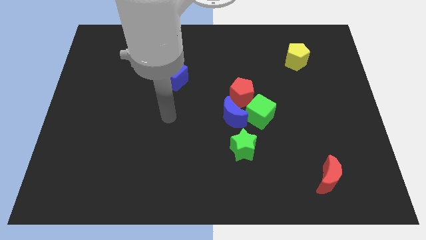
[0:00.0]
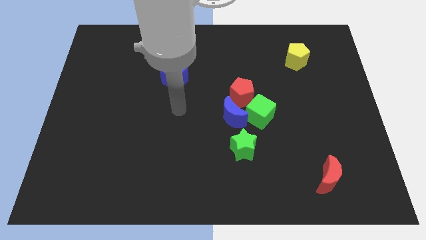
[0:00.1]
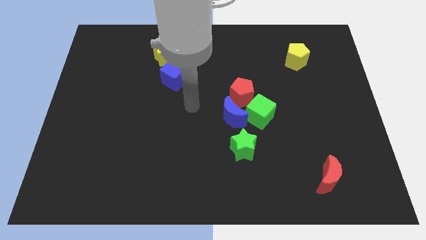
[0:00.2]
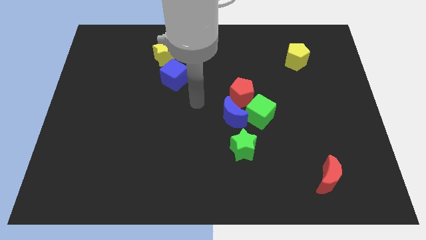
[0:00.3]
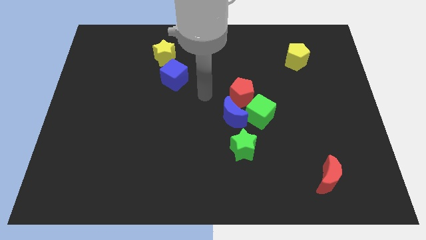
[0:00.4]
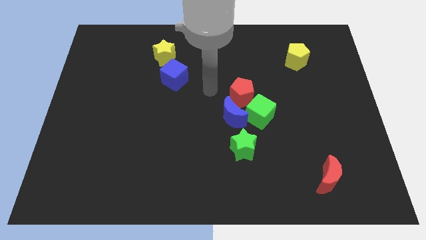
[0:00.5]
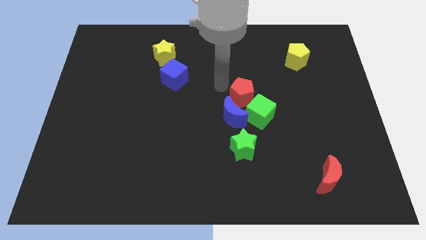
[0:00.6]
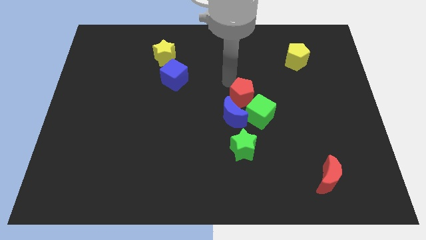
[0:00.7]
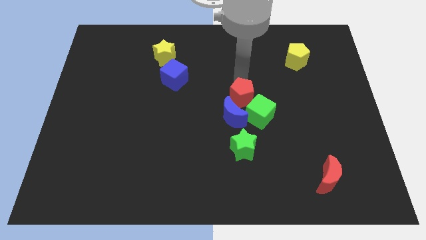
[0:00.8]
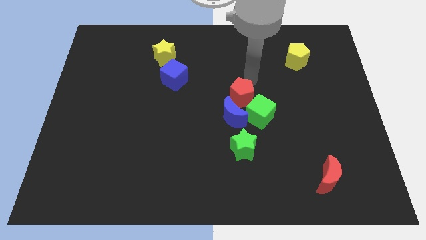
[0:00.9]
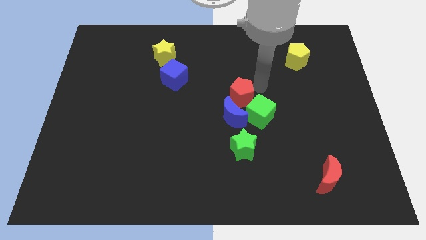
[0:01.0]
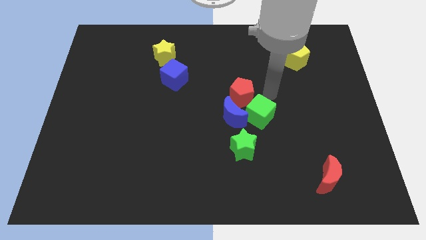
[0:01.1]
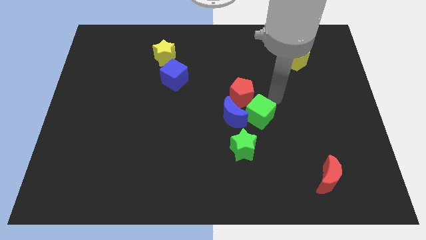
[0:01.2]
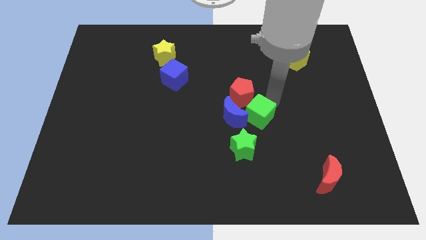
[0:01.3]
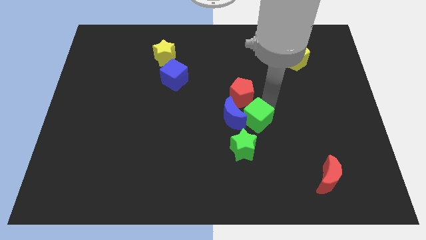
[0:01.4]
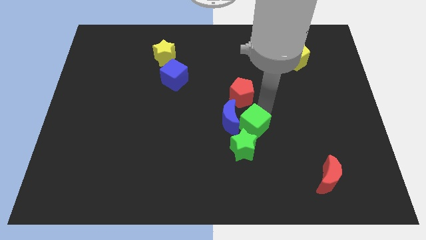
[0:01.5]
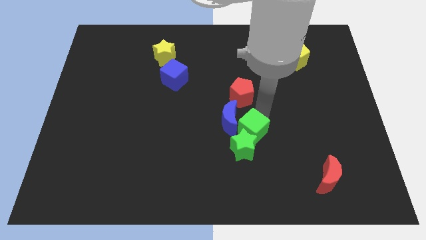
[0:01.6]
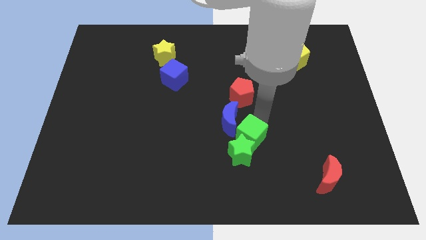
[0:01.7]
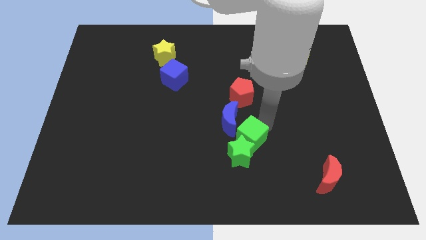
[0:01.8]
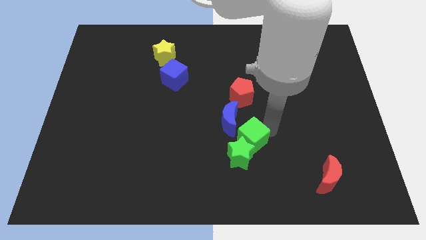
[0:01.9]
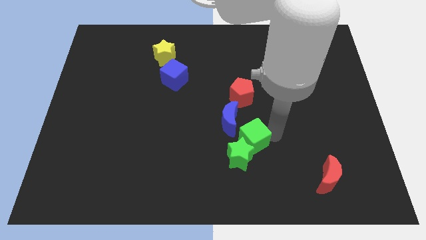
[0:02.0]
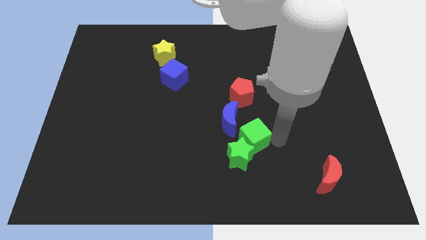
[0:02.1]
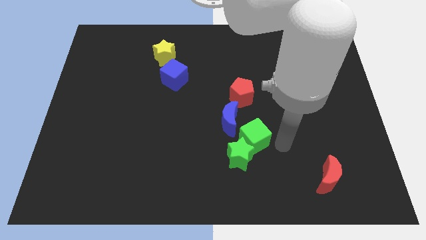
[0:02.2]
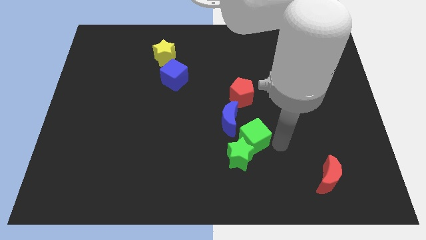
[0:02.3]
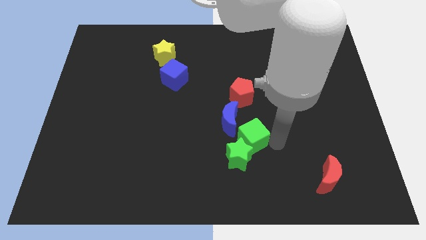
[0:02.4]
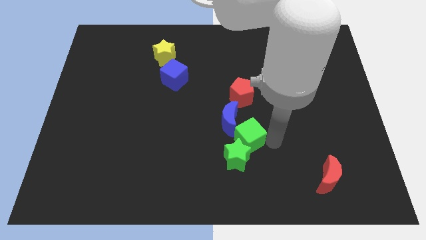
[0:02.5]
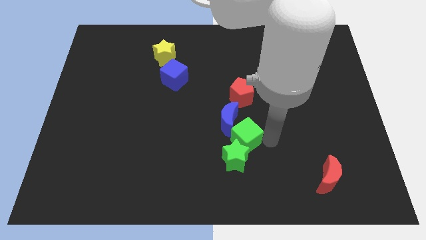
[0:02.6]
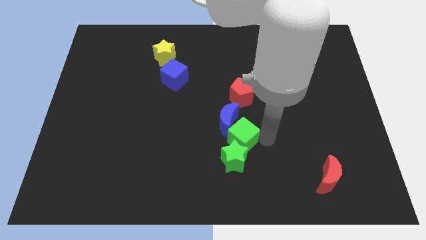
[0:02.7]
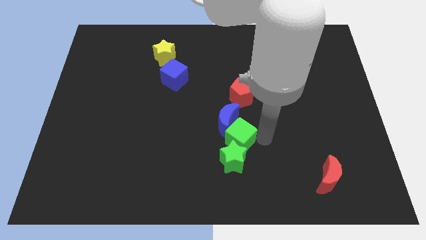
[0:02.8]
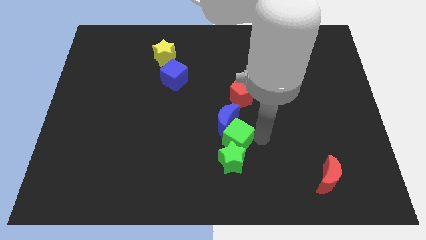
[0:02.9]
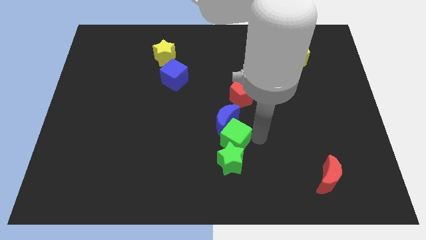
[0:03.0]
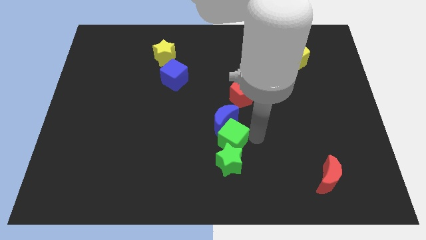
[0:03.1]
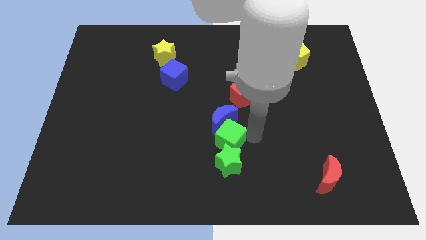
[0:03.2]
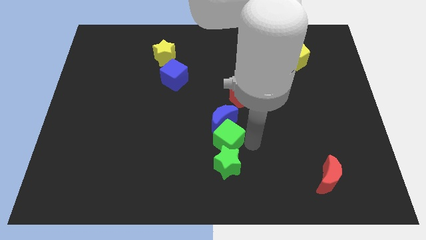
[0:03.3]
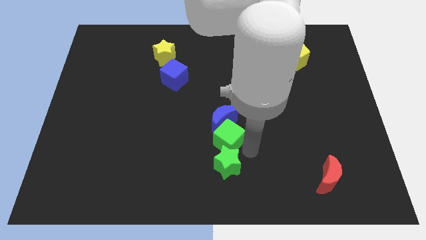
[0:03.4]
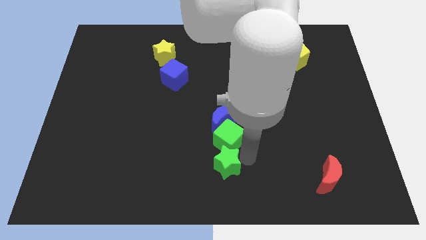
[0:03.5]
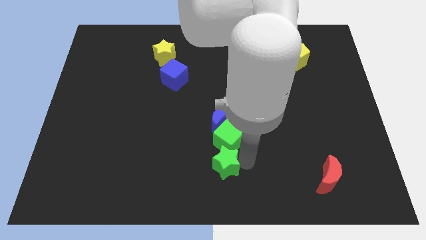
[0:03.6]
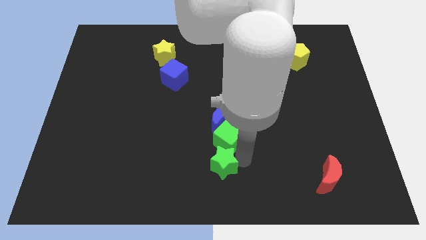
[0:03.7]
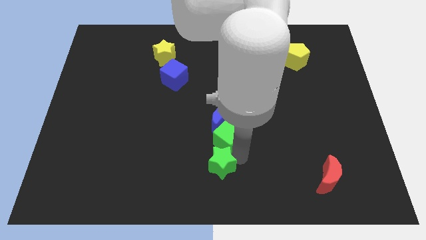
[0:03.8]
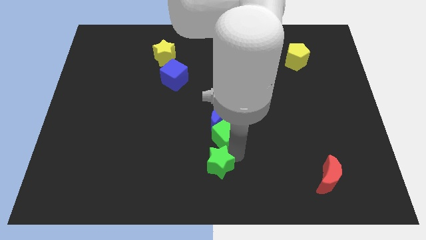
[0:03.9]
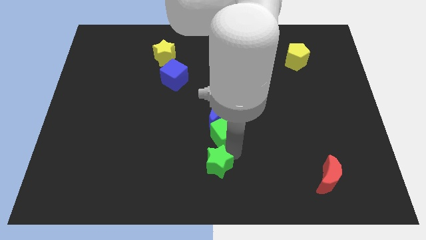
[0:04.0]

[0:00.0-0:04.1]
push the green cube left a little

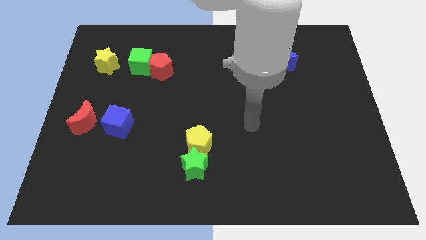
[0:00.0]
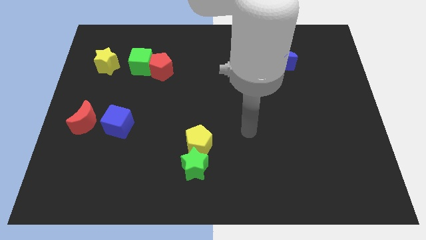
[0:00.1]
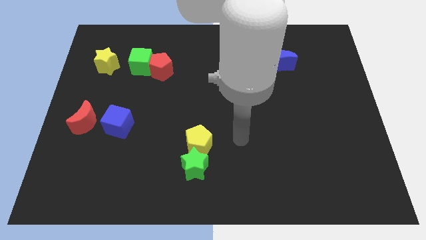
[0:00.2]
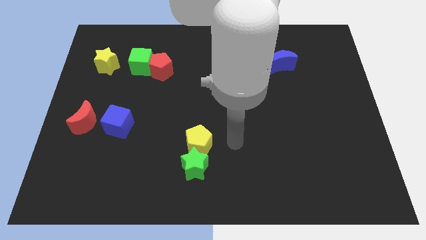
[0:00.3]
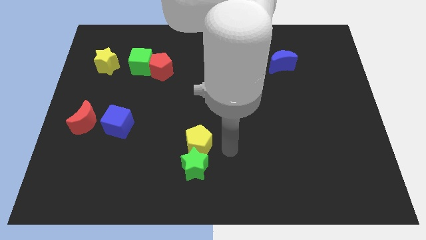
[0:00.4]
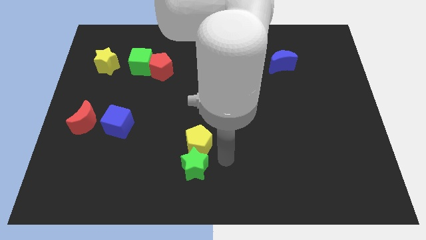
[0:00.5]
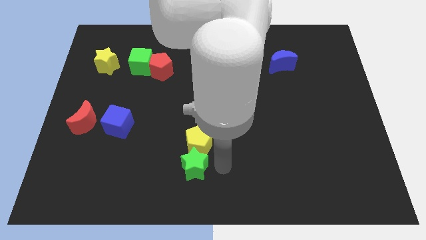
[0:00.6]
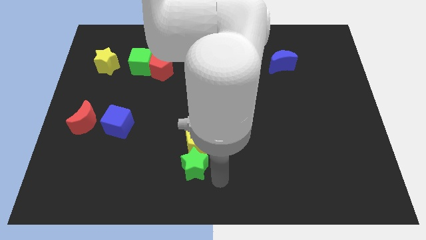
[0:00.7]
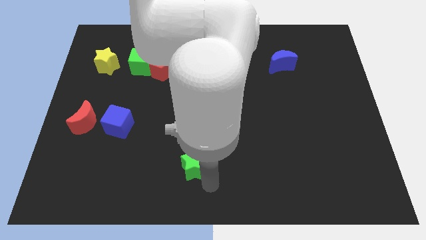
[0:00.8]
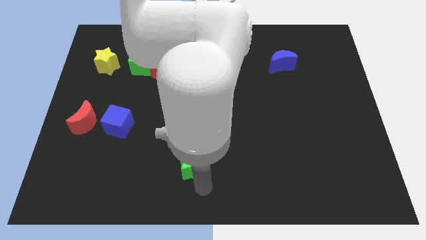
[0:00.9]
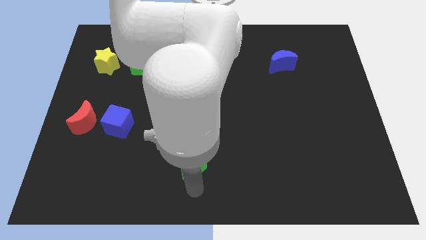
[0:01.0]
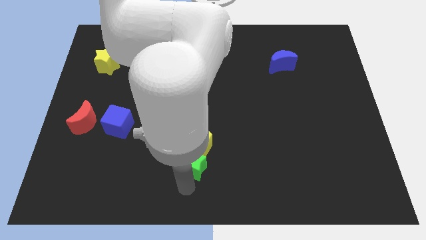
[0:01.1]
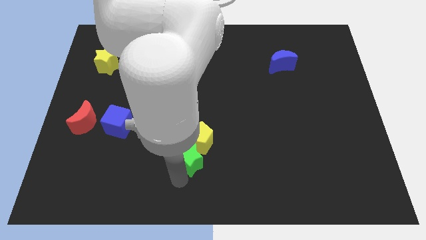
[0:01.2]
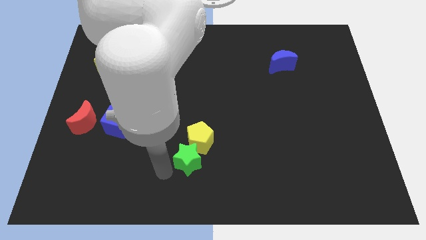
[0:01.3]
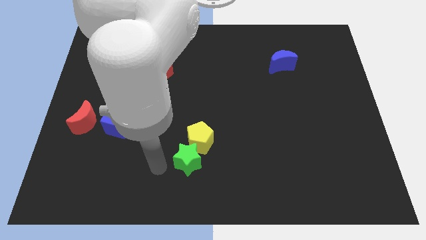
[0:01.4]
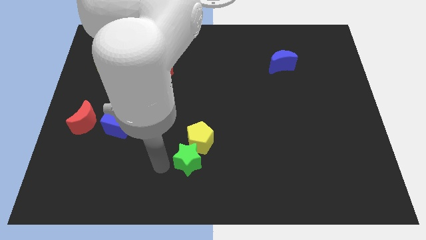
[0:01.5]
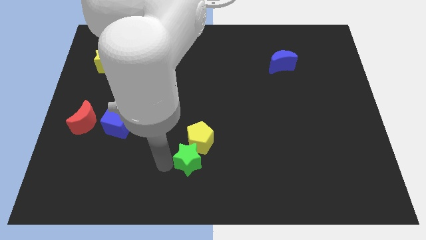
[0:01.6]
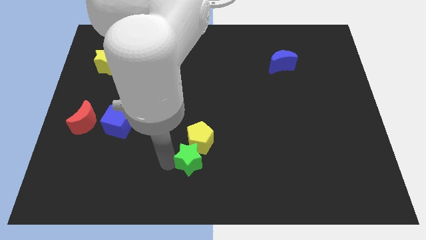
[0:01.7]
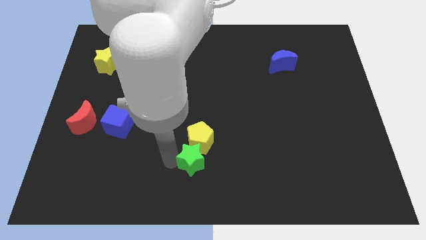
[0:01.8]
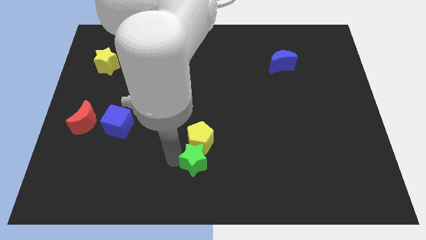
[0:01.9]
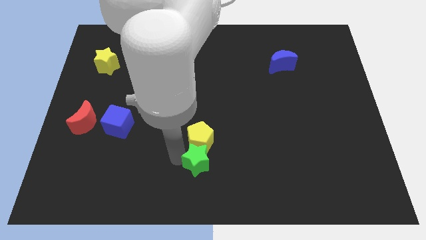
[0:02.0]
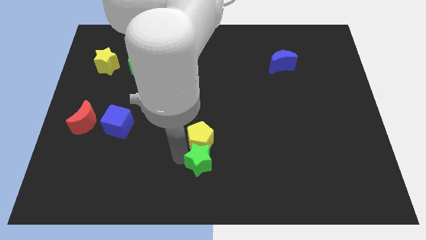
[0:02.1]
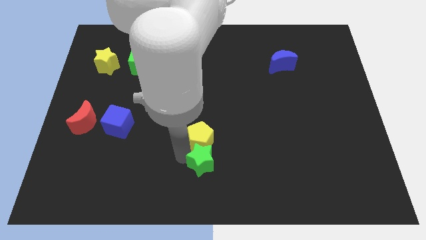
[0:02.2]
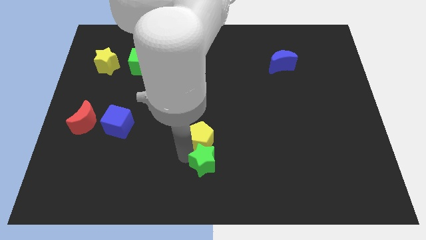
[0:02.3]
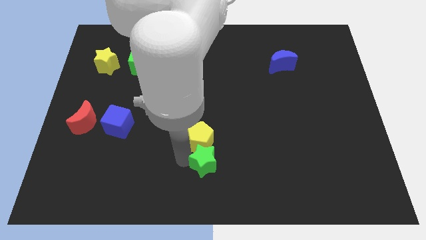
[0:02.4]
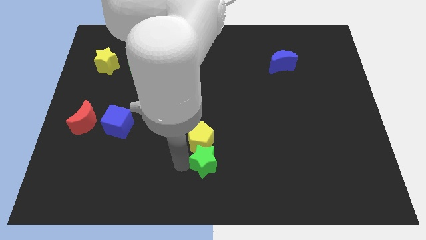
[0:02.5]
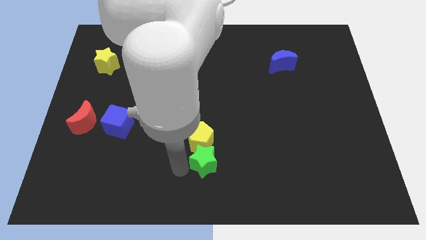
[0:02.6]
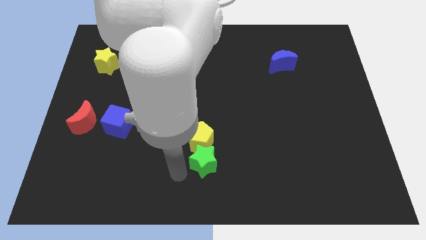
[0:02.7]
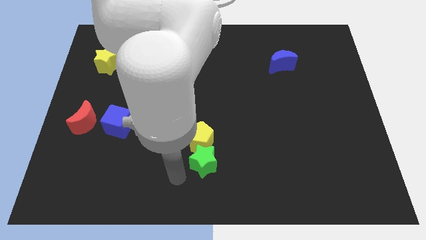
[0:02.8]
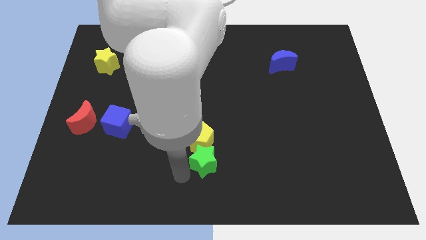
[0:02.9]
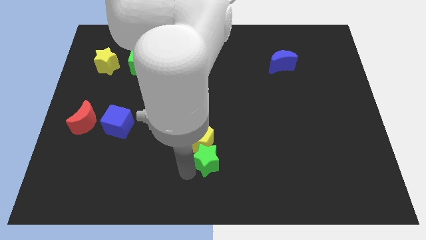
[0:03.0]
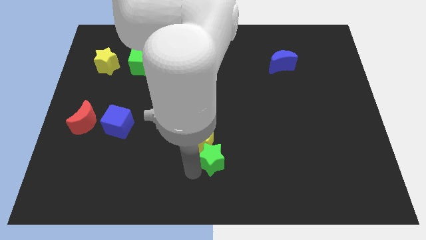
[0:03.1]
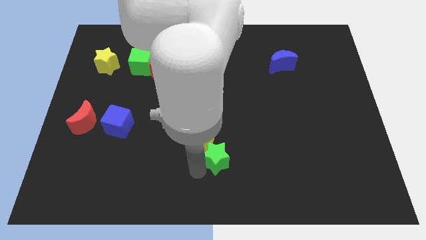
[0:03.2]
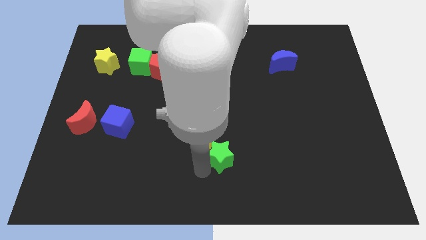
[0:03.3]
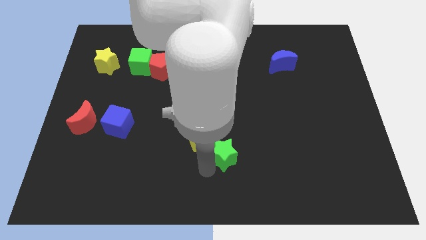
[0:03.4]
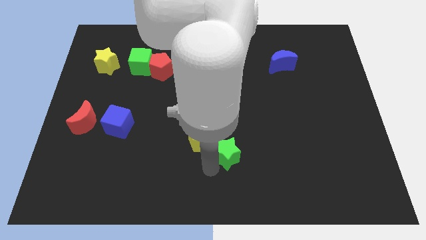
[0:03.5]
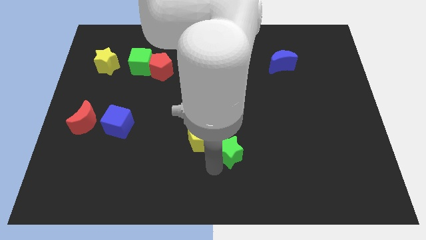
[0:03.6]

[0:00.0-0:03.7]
push the green star slightly up and to the right diagonally

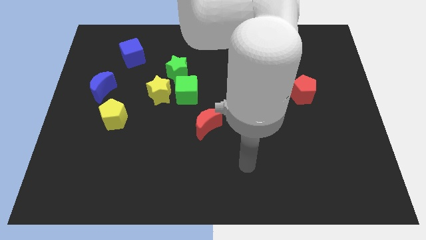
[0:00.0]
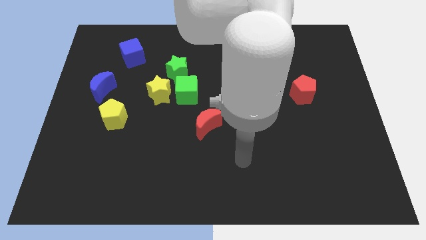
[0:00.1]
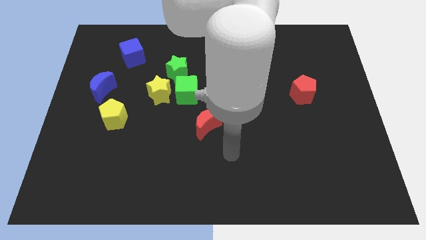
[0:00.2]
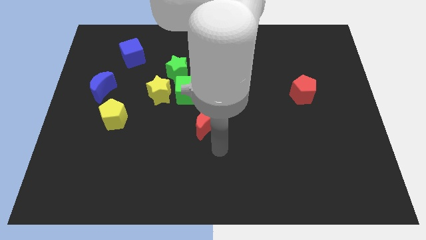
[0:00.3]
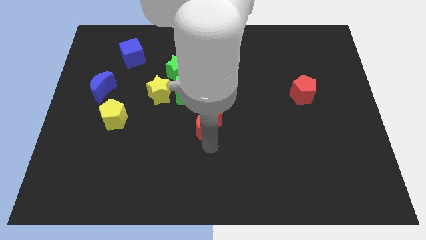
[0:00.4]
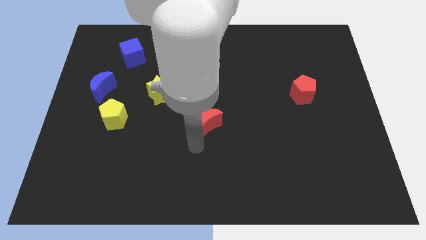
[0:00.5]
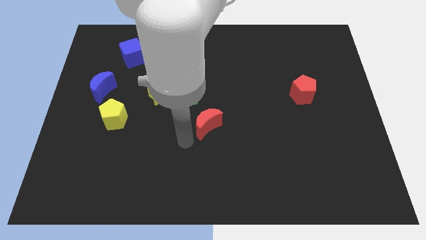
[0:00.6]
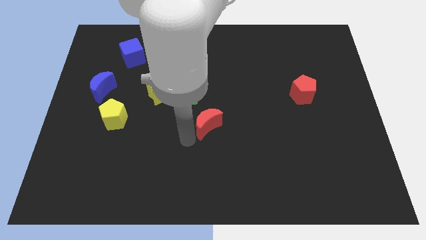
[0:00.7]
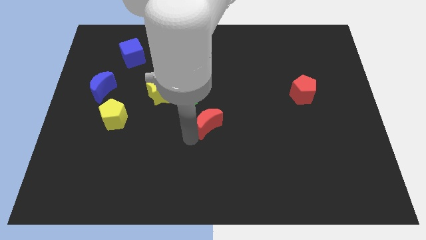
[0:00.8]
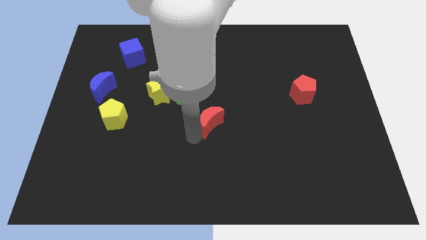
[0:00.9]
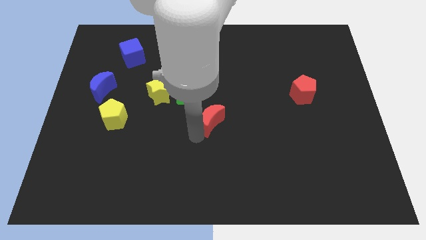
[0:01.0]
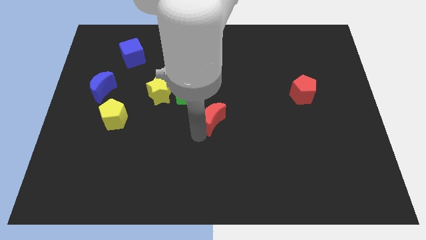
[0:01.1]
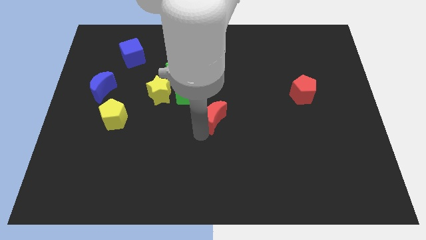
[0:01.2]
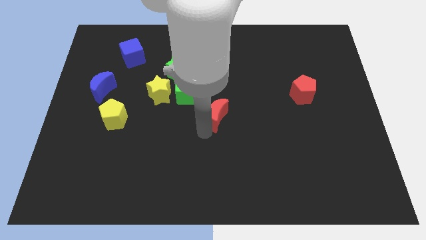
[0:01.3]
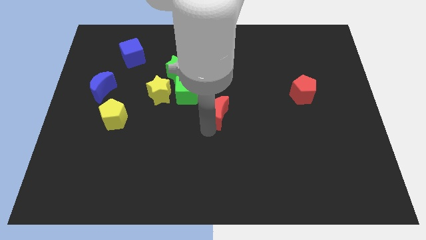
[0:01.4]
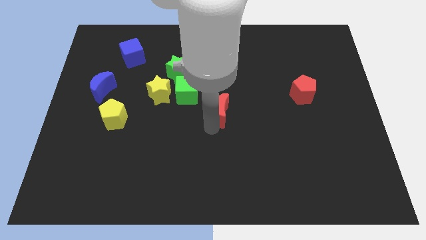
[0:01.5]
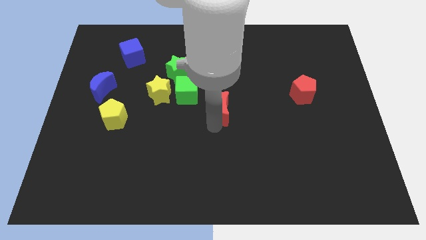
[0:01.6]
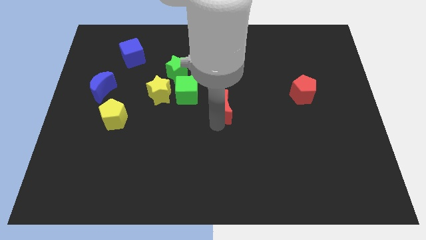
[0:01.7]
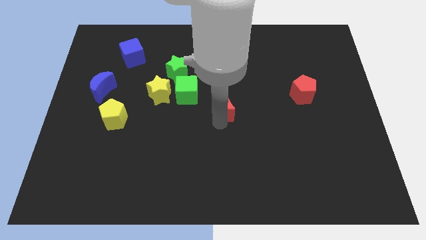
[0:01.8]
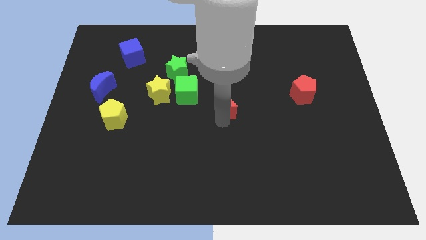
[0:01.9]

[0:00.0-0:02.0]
move the red moon up and to the right diagonally a little
